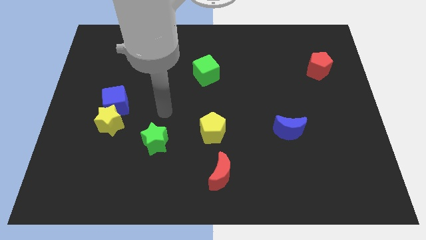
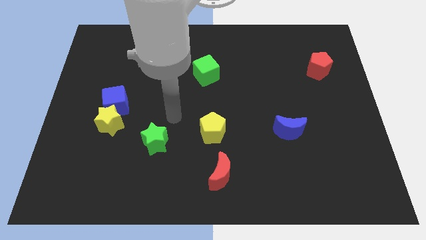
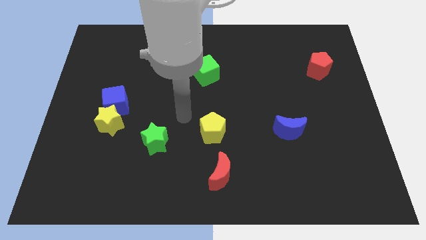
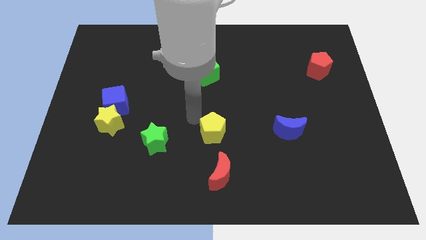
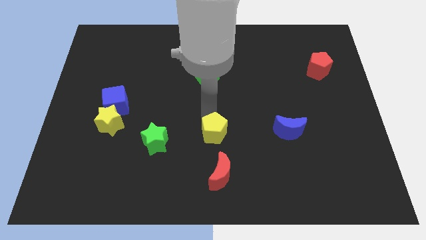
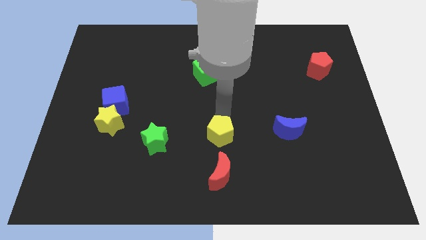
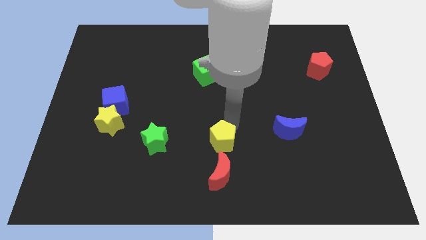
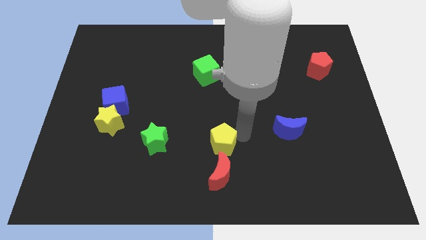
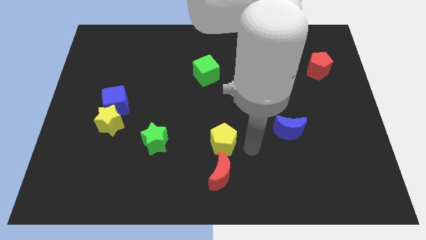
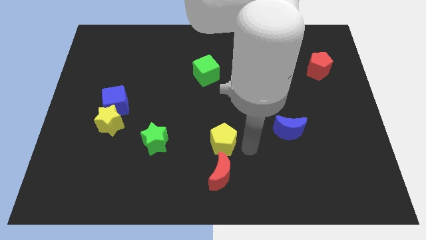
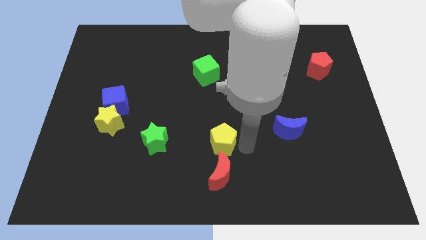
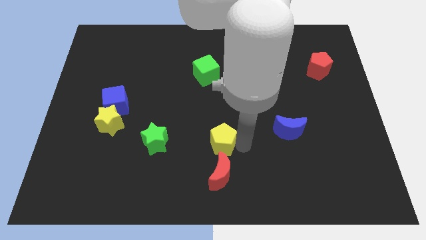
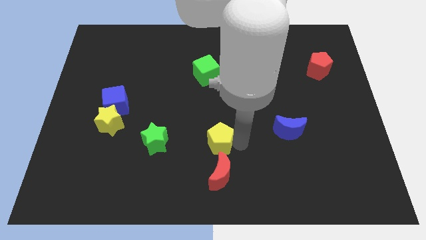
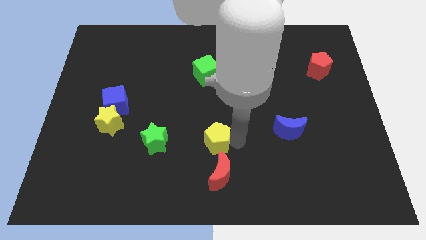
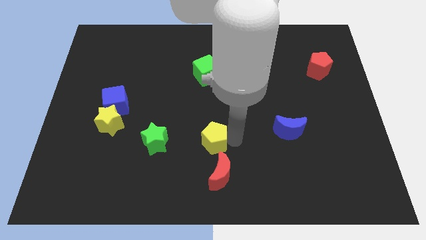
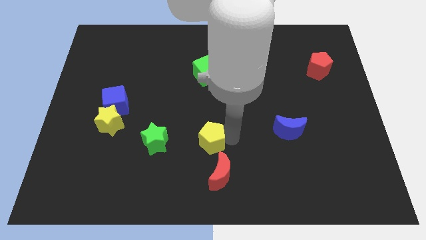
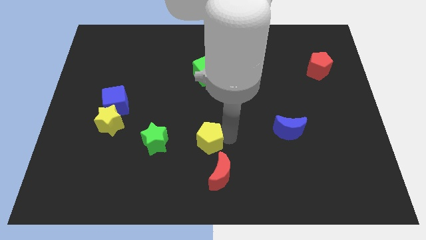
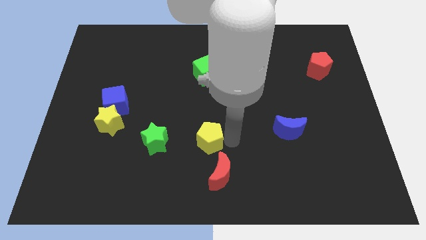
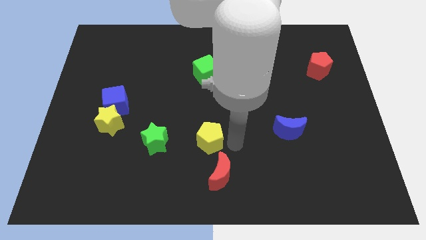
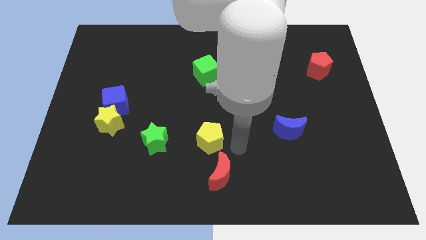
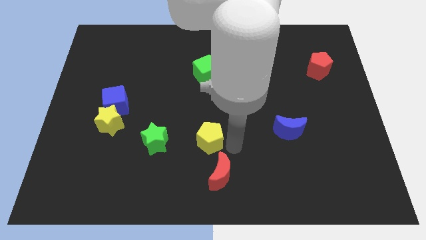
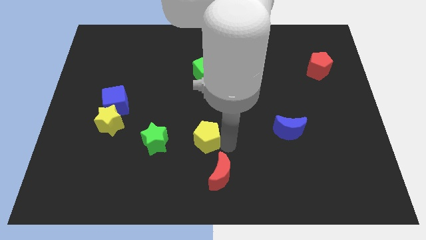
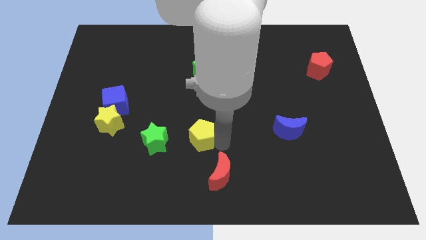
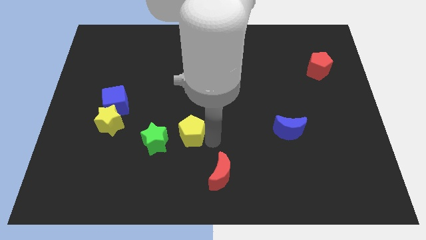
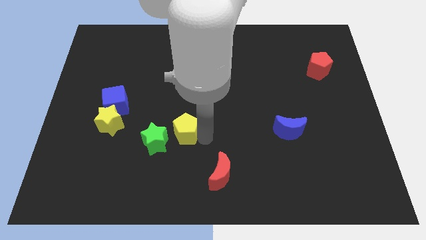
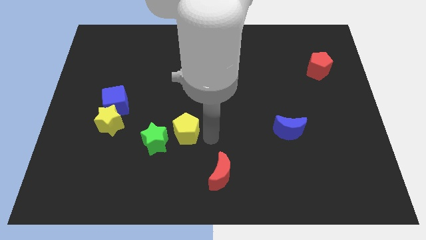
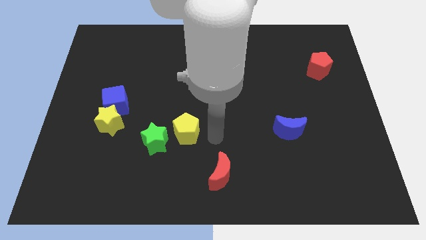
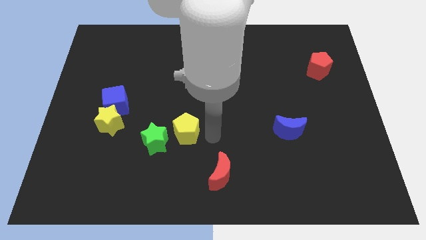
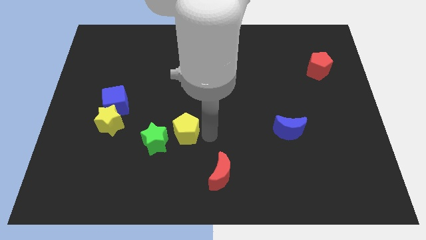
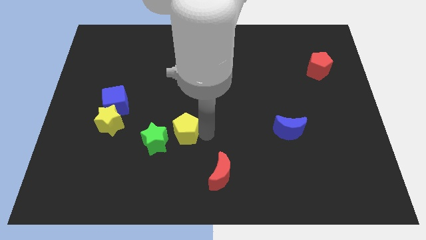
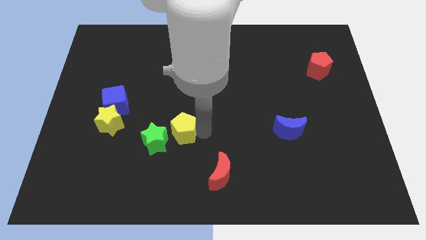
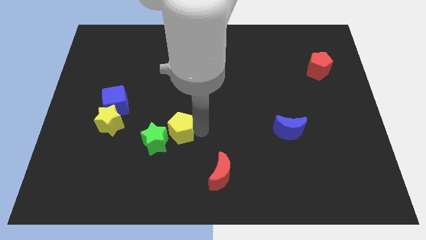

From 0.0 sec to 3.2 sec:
push the yellow pentagon to the left somewhat

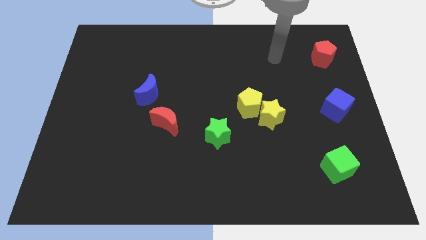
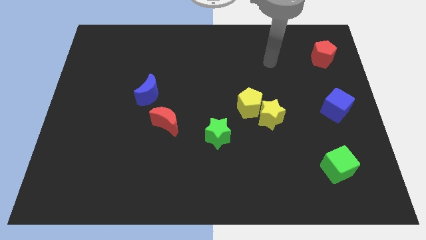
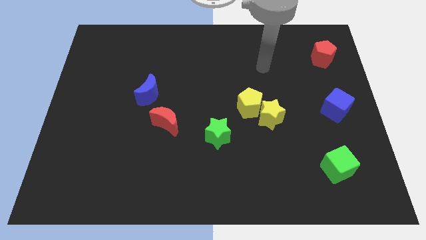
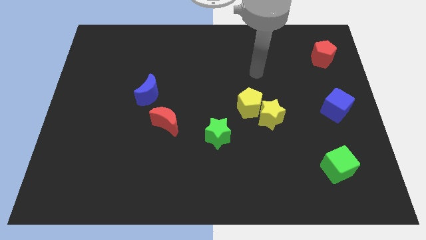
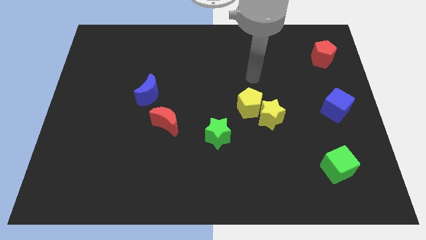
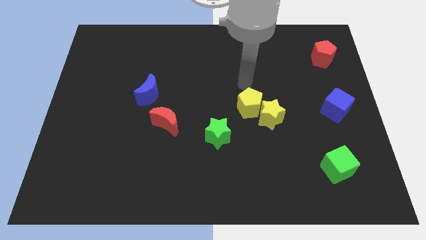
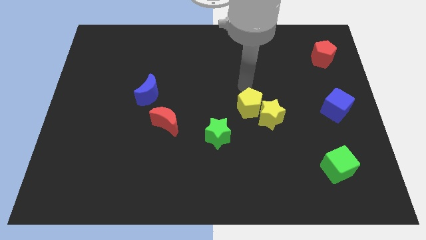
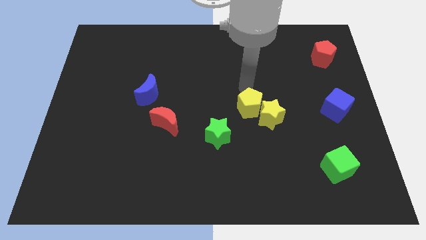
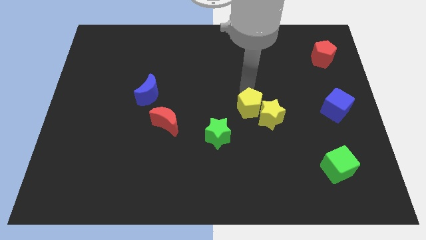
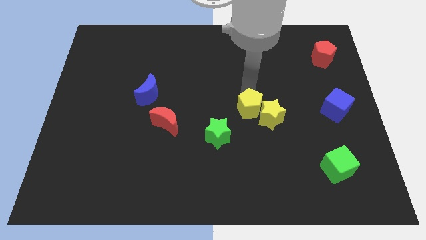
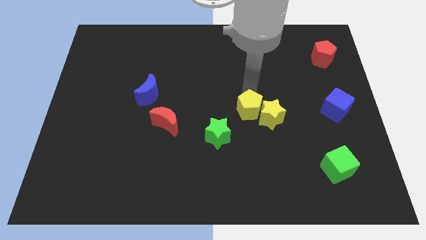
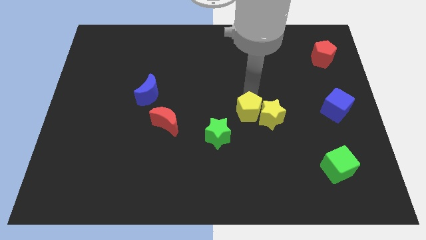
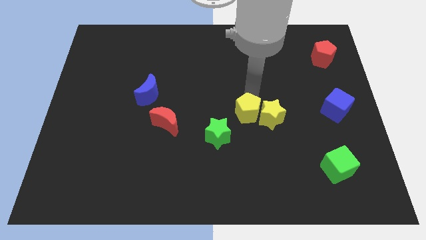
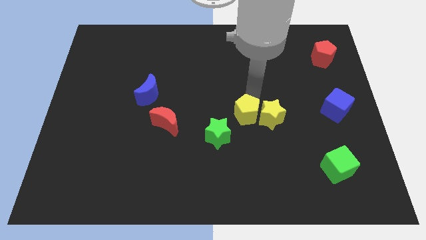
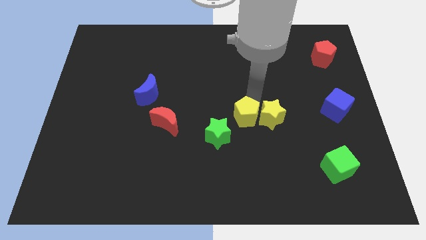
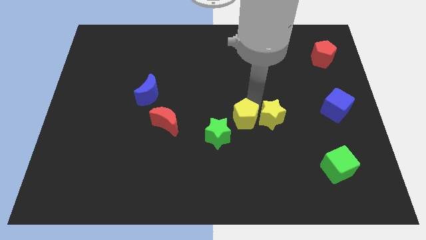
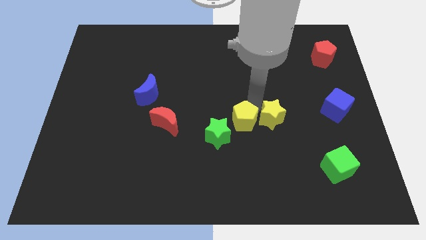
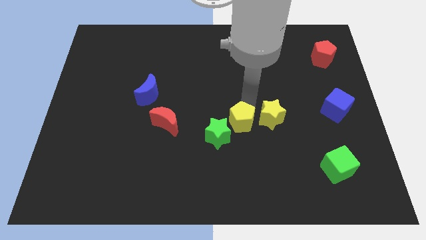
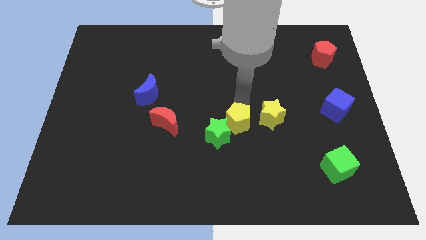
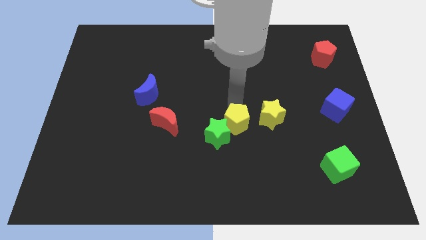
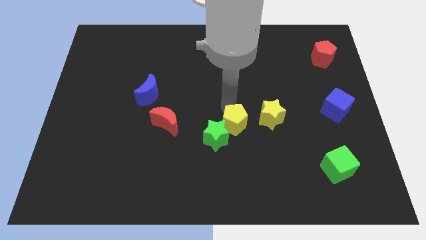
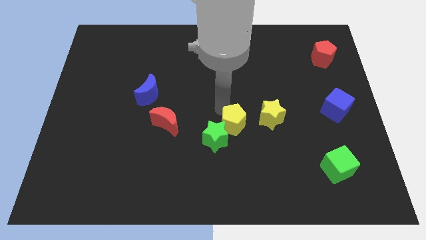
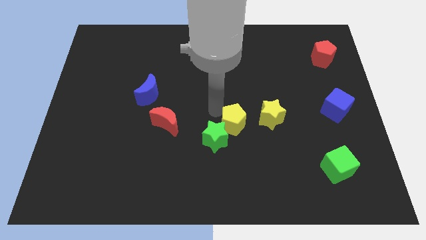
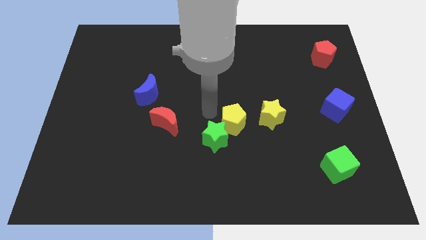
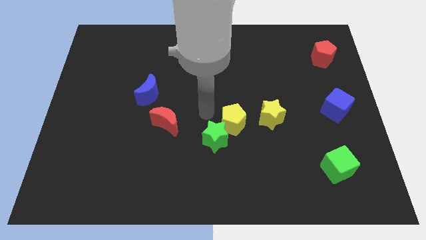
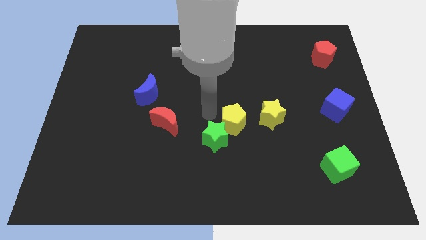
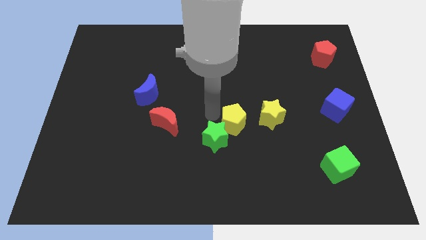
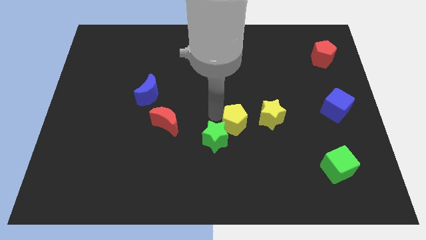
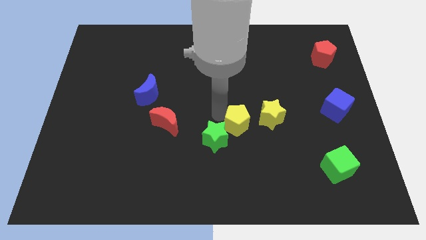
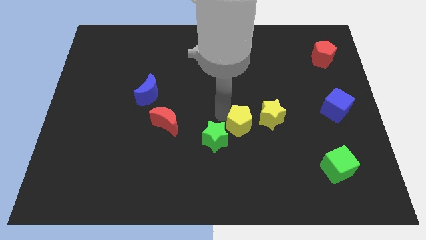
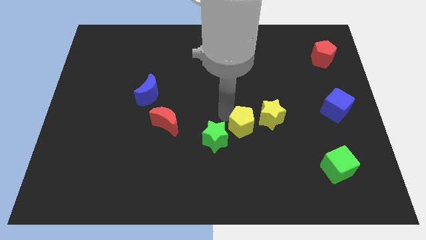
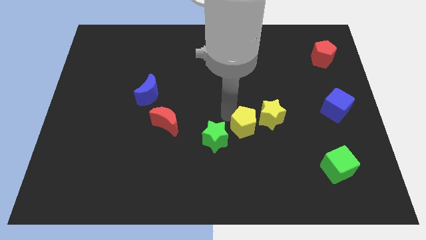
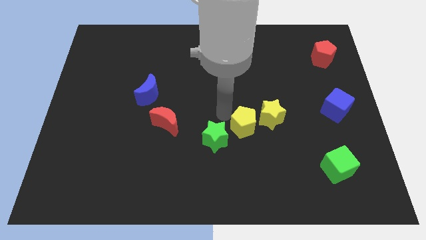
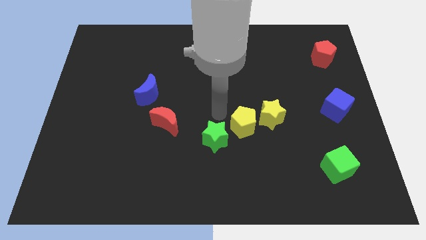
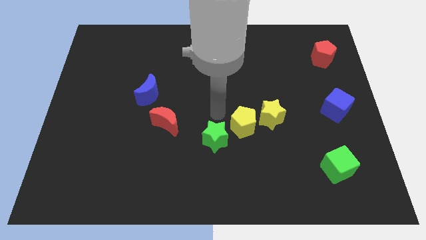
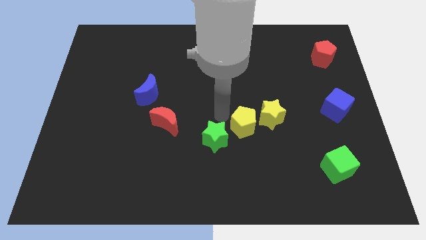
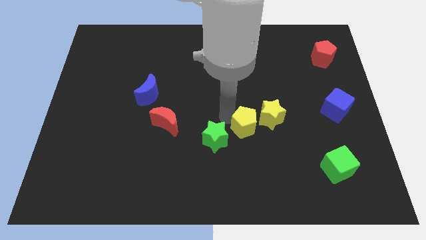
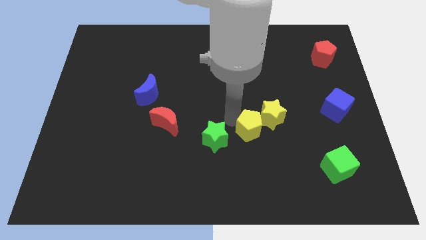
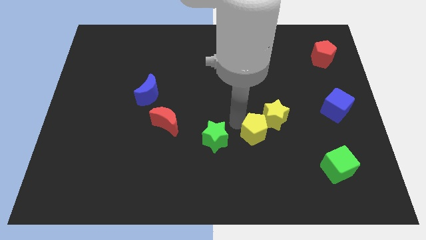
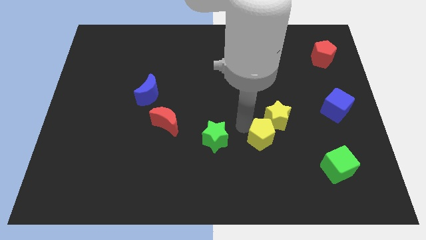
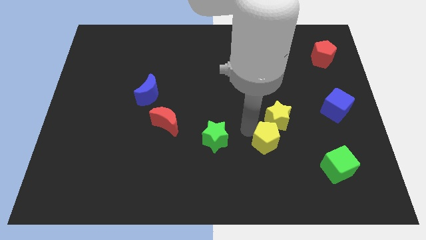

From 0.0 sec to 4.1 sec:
slightly slide the yellow pentagon down and right diagonally

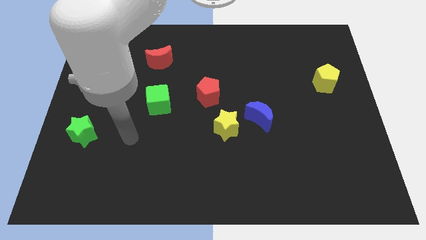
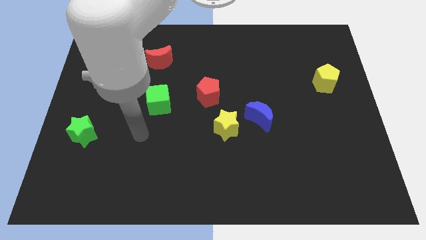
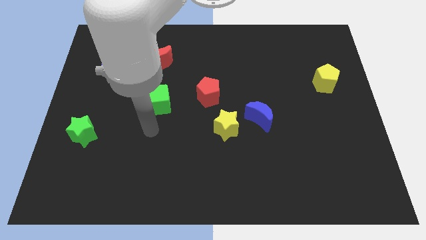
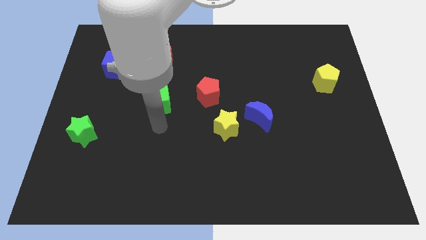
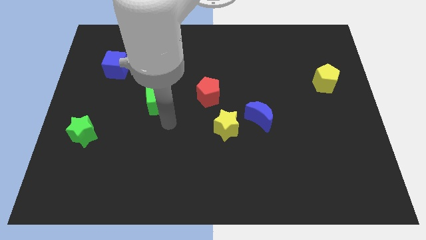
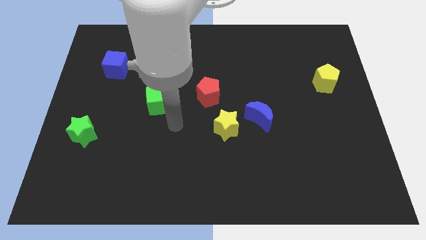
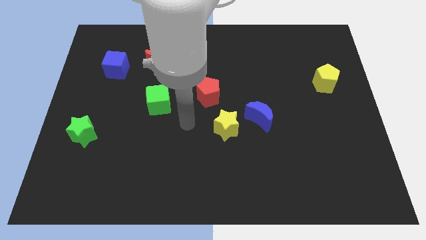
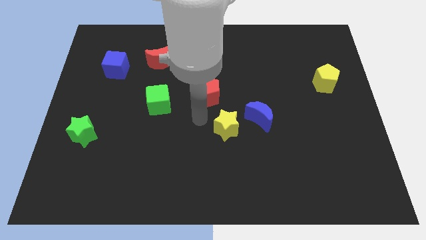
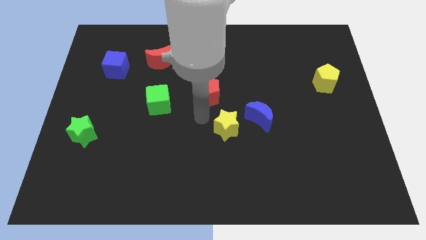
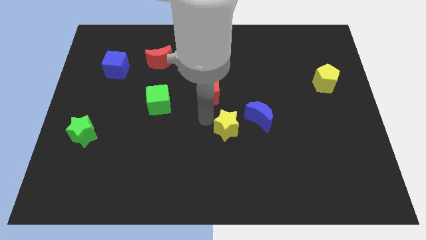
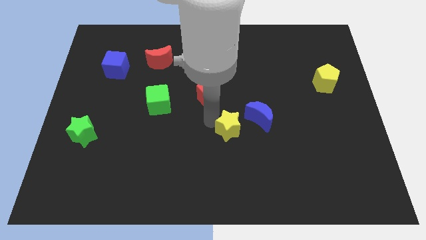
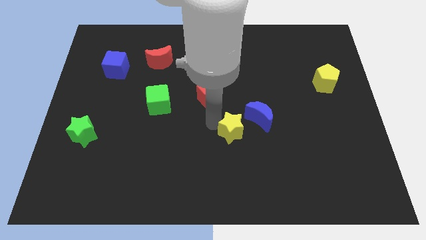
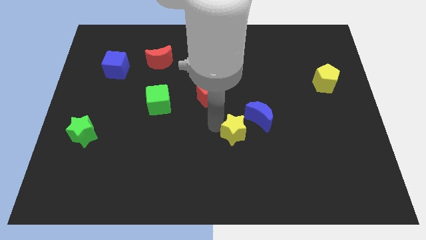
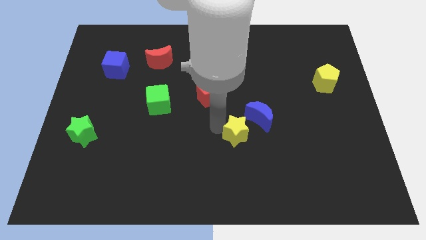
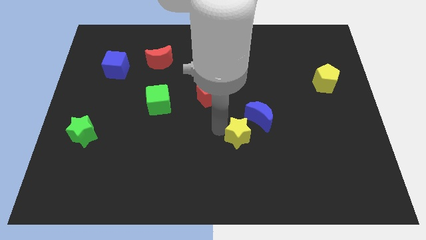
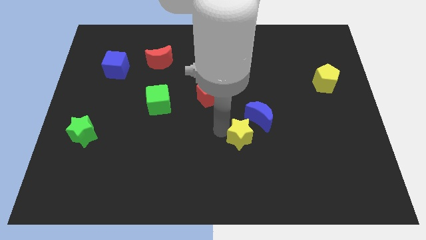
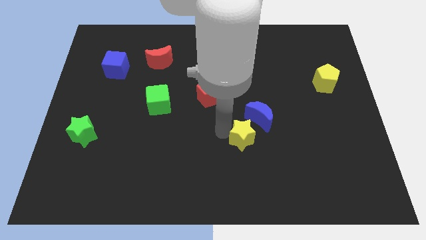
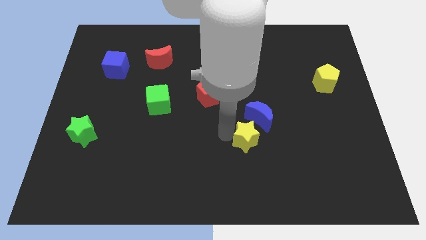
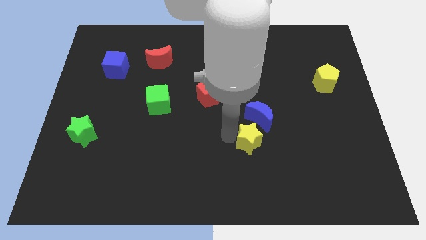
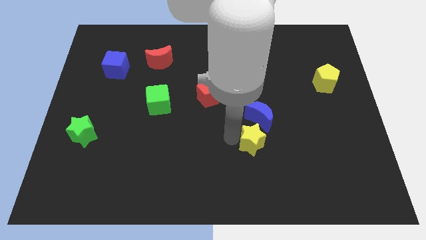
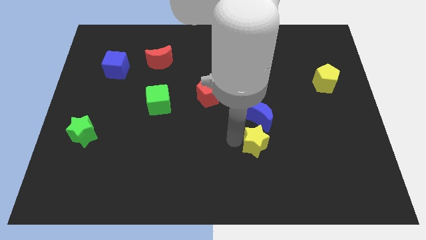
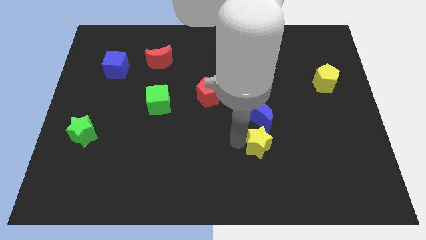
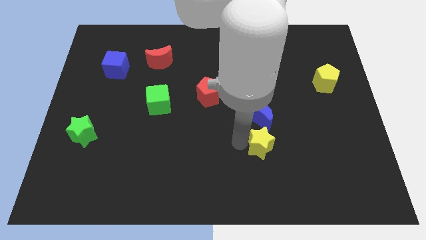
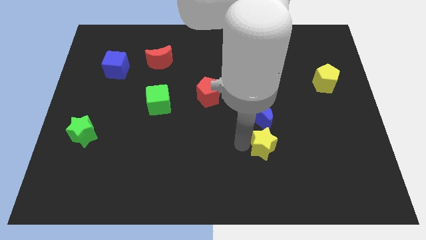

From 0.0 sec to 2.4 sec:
slightly slide the yellow star to the right
